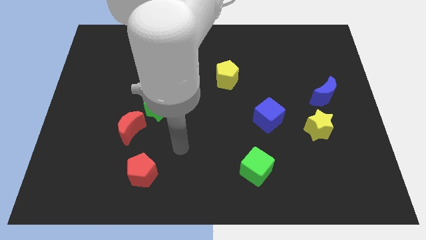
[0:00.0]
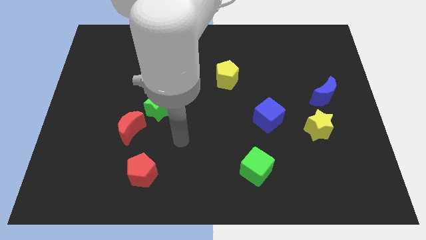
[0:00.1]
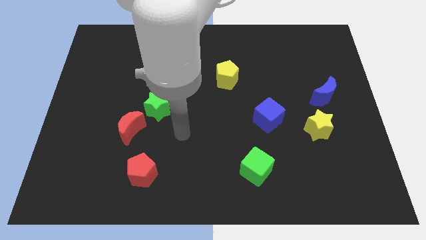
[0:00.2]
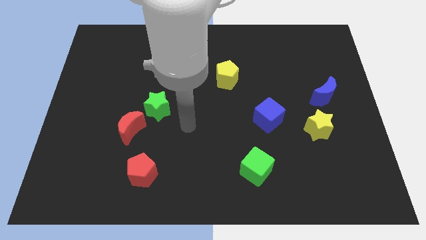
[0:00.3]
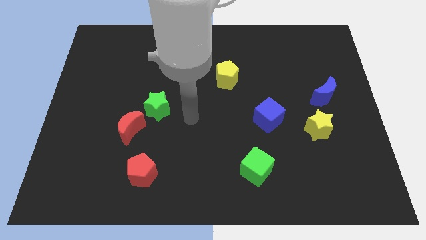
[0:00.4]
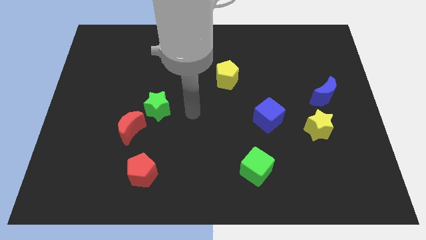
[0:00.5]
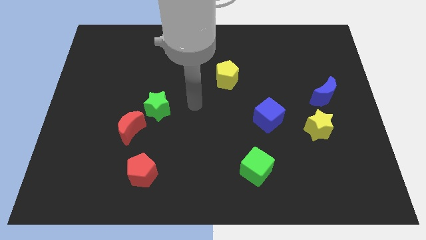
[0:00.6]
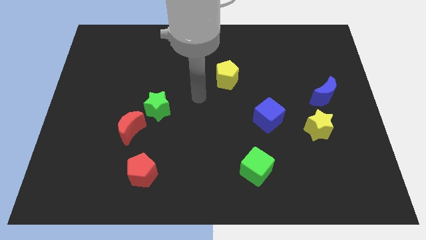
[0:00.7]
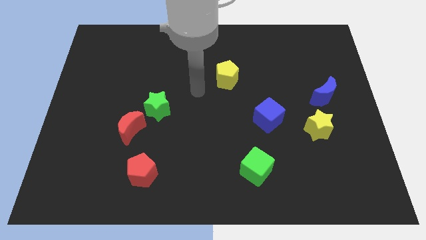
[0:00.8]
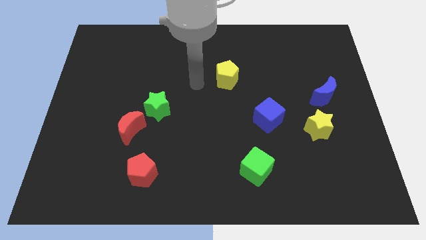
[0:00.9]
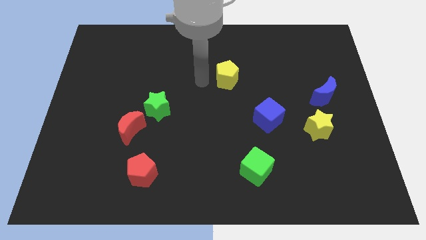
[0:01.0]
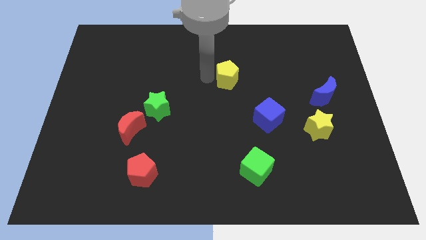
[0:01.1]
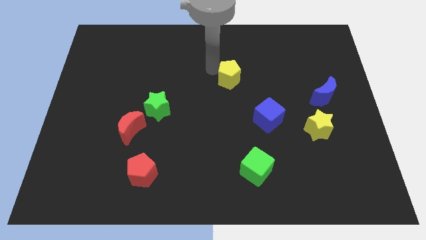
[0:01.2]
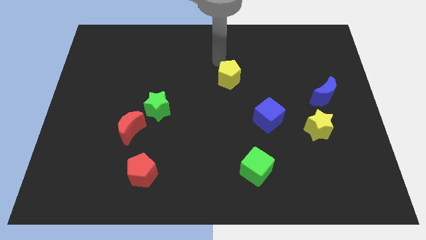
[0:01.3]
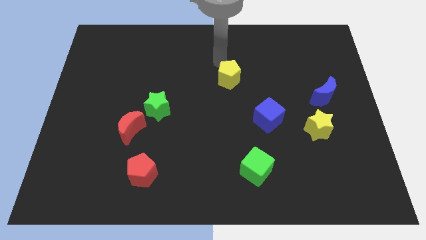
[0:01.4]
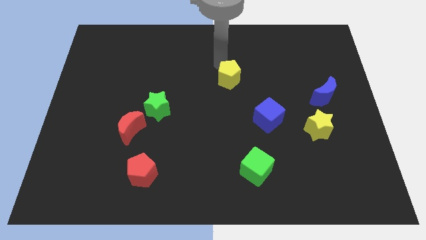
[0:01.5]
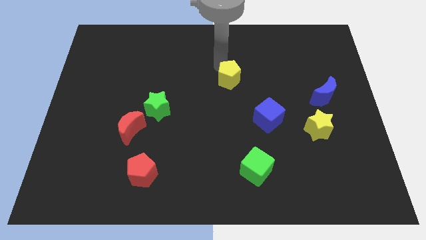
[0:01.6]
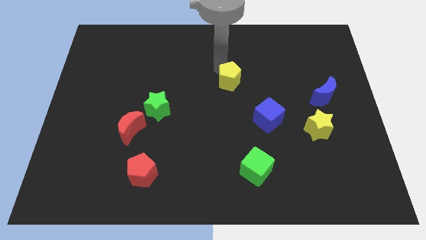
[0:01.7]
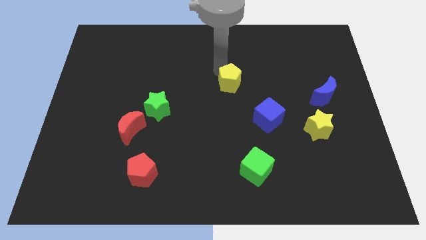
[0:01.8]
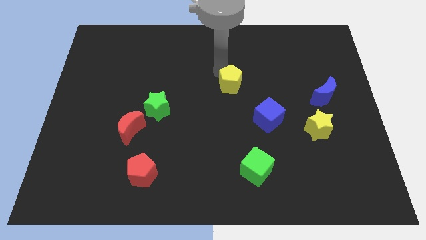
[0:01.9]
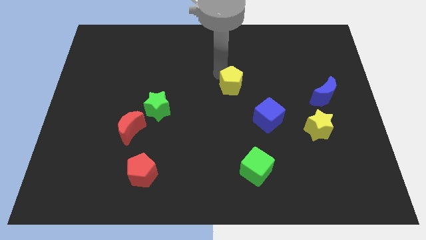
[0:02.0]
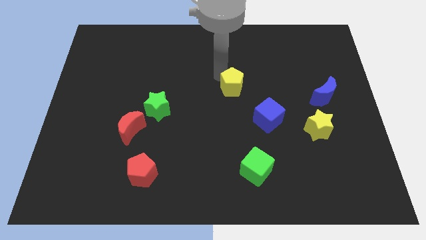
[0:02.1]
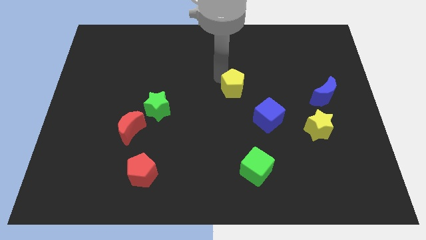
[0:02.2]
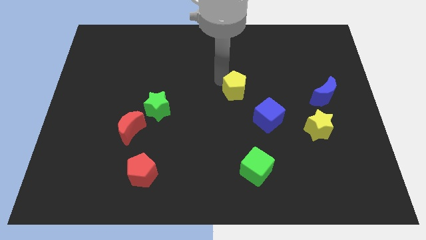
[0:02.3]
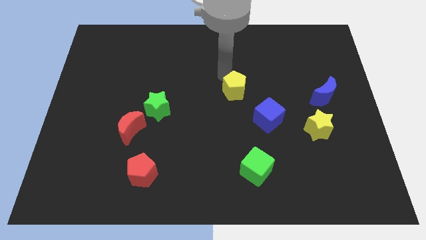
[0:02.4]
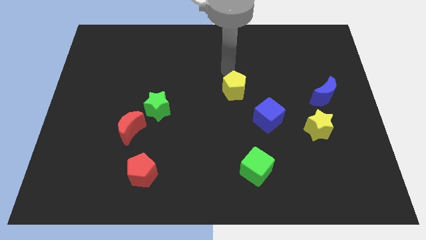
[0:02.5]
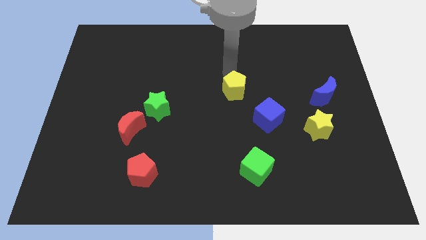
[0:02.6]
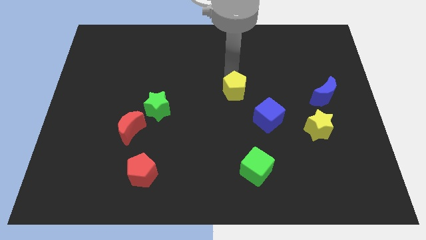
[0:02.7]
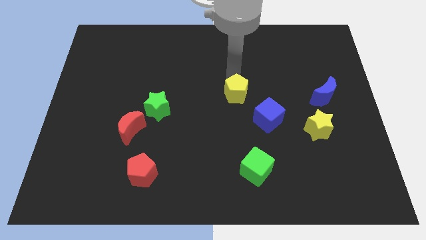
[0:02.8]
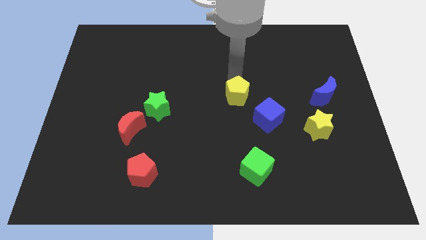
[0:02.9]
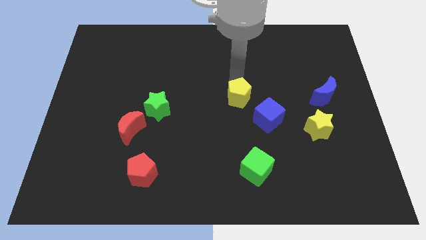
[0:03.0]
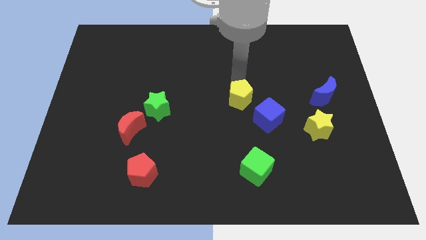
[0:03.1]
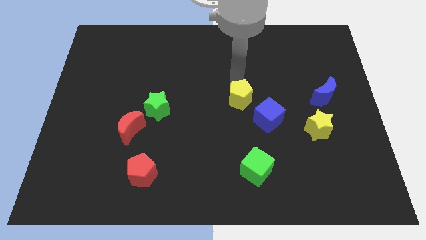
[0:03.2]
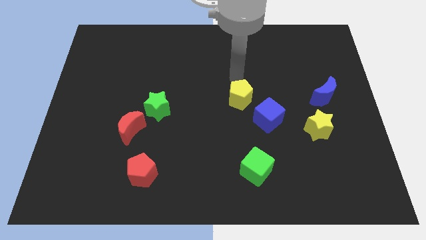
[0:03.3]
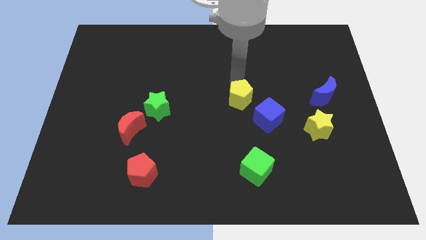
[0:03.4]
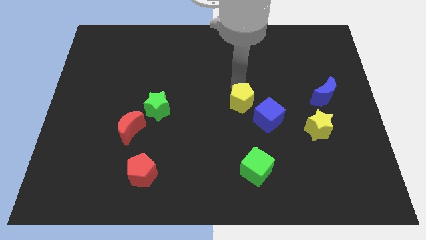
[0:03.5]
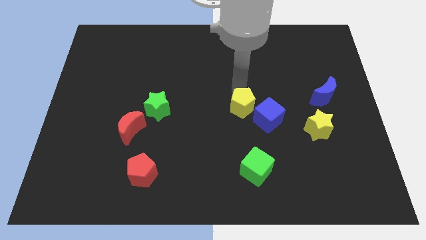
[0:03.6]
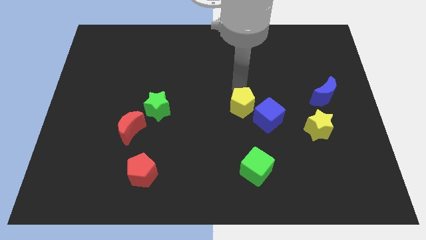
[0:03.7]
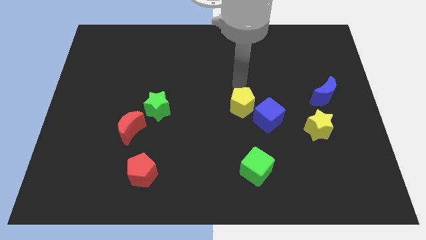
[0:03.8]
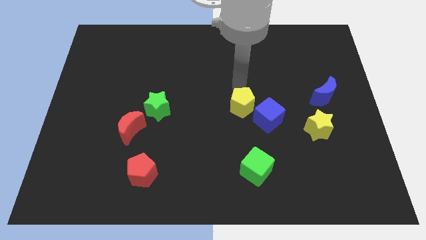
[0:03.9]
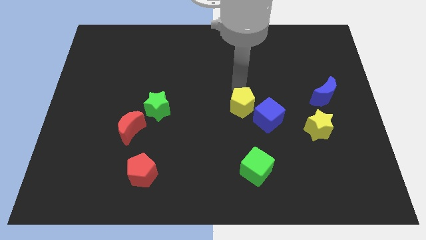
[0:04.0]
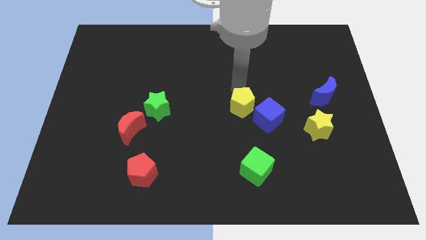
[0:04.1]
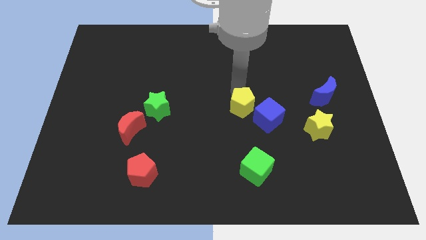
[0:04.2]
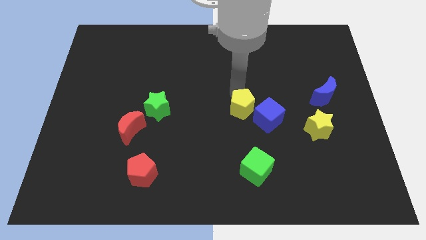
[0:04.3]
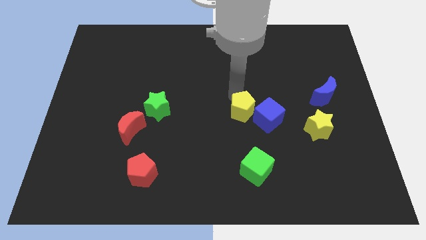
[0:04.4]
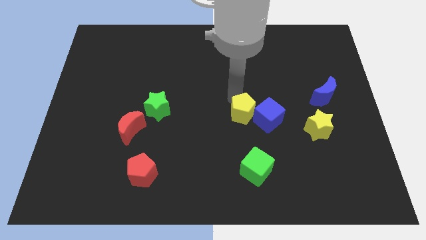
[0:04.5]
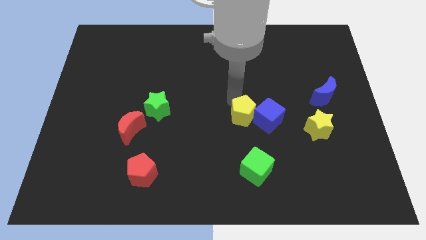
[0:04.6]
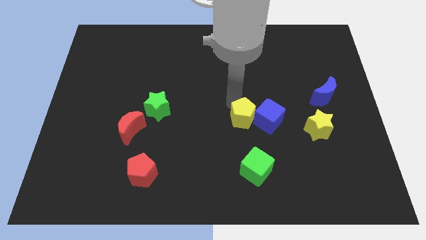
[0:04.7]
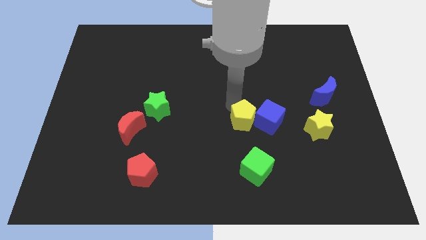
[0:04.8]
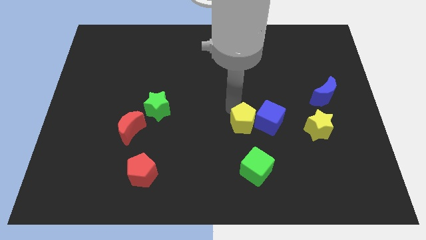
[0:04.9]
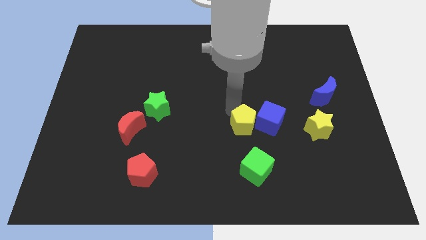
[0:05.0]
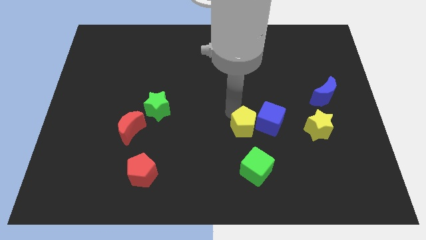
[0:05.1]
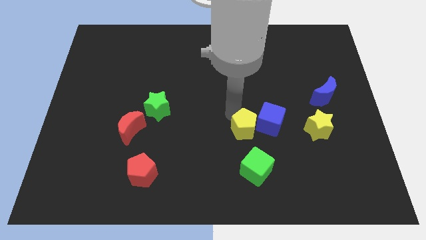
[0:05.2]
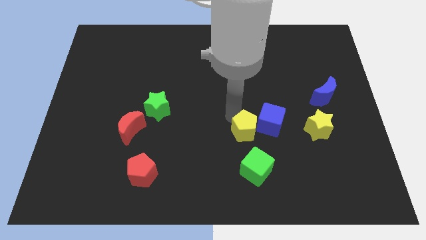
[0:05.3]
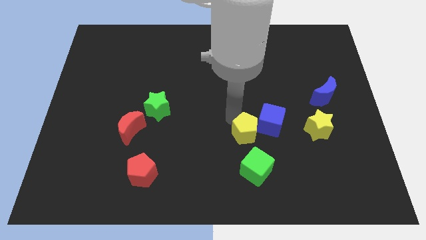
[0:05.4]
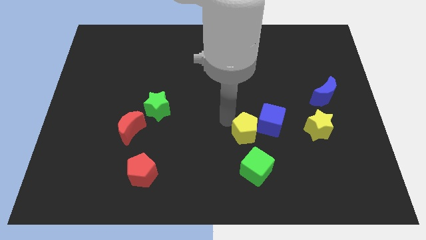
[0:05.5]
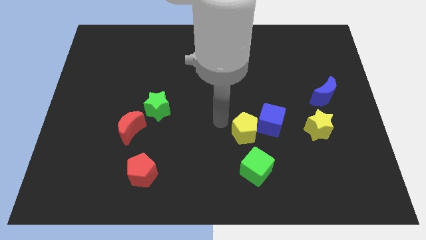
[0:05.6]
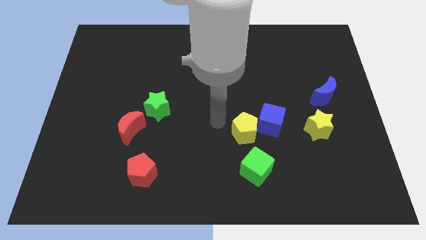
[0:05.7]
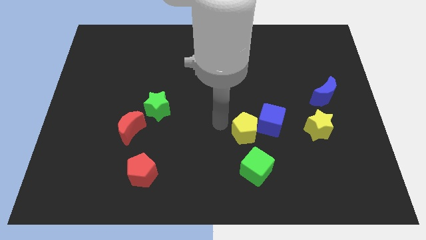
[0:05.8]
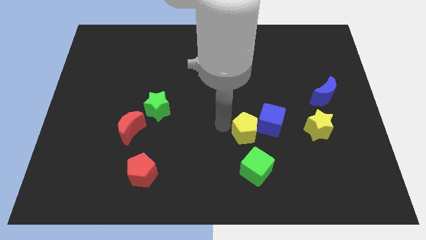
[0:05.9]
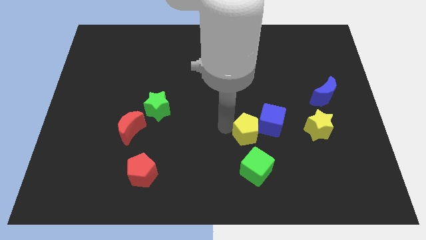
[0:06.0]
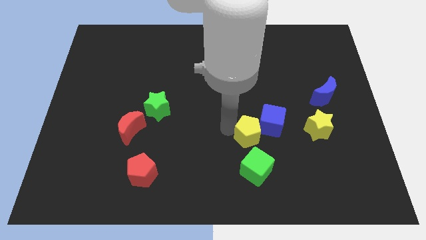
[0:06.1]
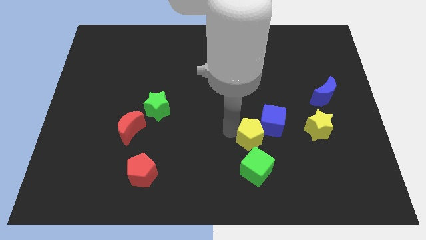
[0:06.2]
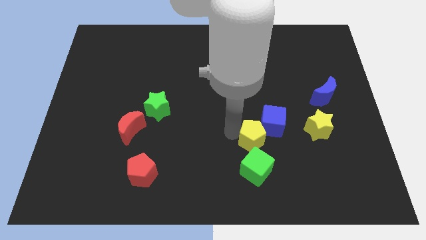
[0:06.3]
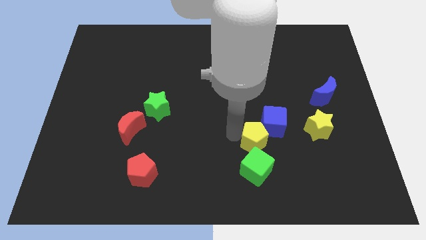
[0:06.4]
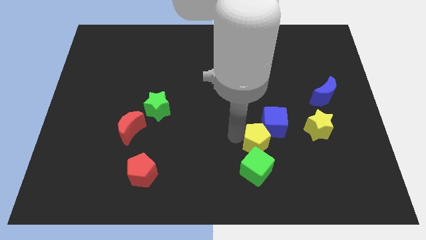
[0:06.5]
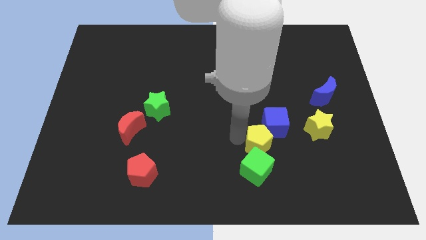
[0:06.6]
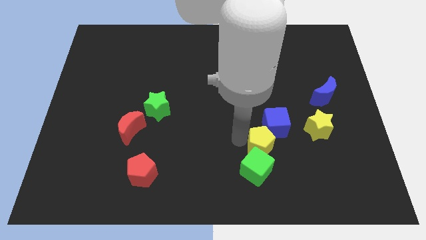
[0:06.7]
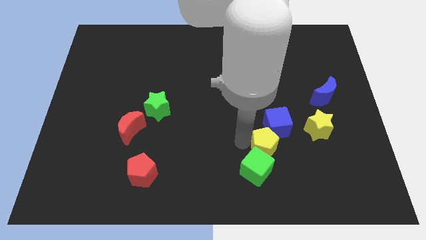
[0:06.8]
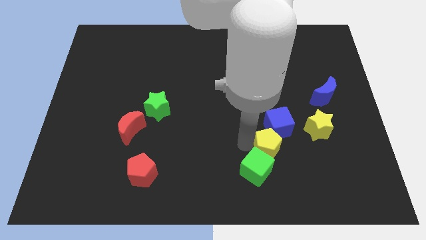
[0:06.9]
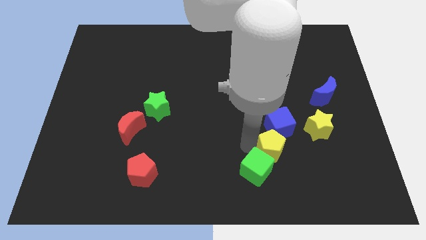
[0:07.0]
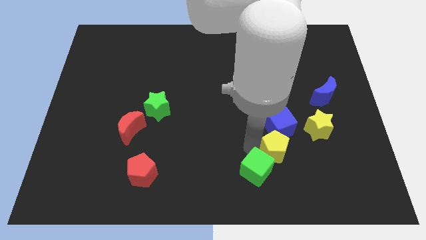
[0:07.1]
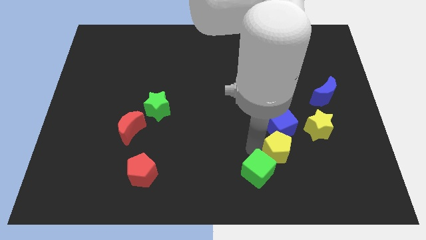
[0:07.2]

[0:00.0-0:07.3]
slide the yellow pentagon diagonally down and to the right

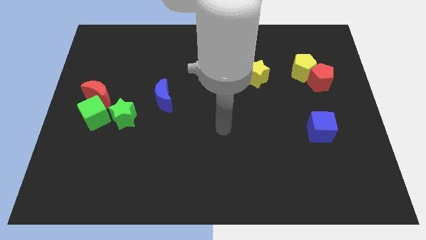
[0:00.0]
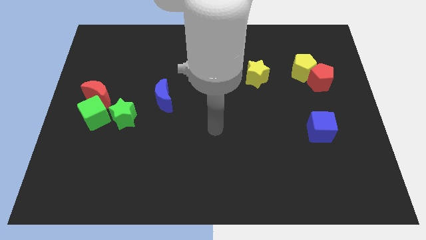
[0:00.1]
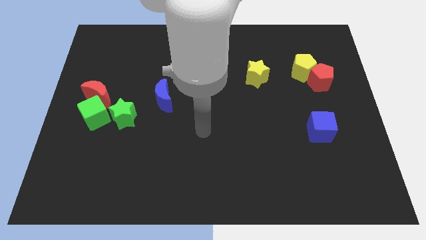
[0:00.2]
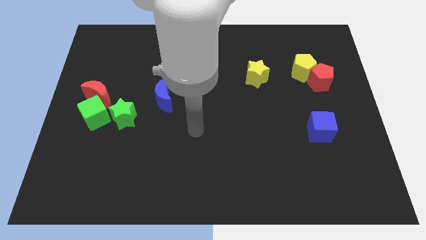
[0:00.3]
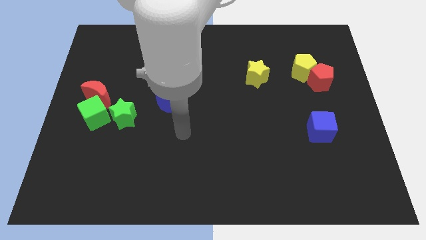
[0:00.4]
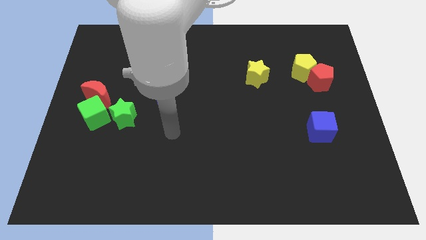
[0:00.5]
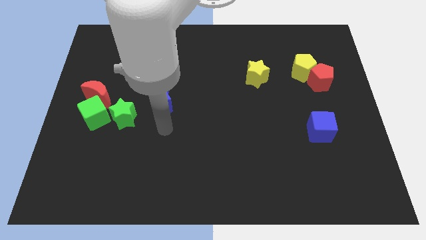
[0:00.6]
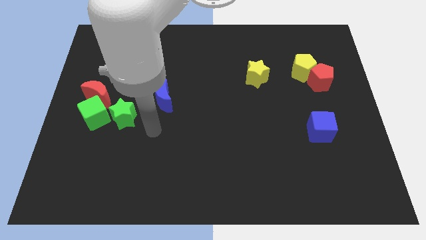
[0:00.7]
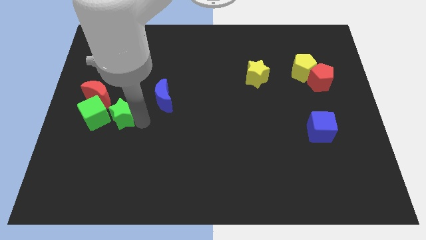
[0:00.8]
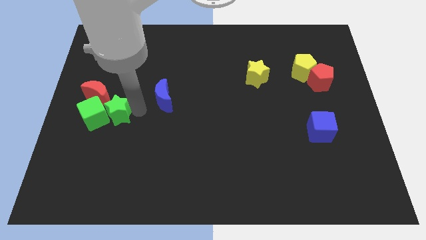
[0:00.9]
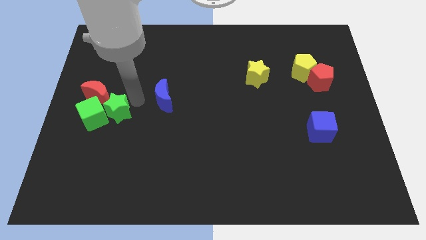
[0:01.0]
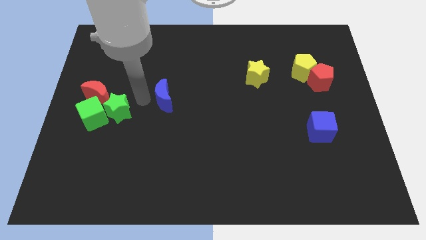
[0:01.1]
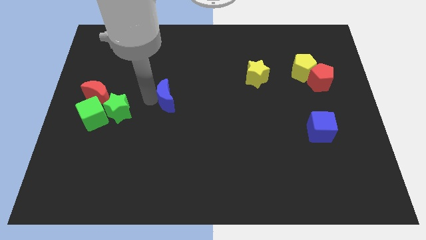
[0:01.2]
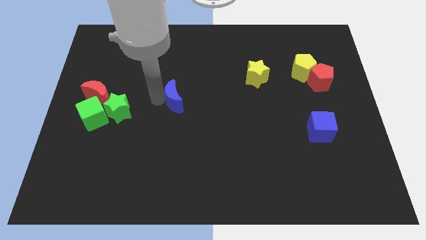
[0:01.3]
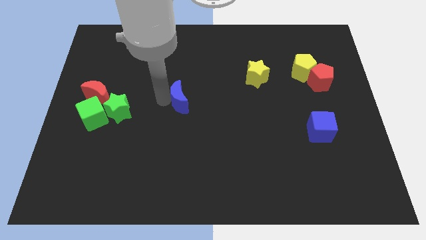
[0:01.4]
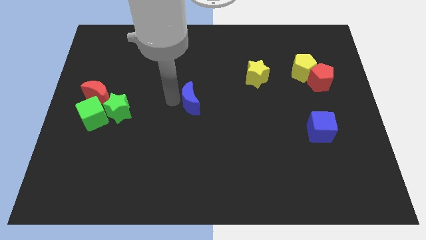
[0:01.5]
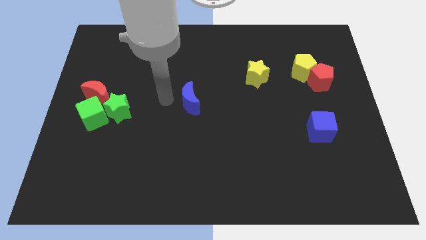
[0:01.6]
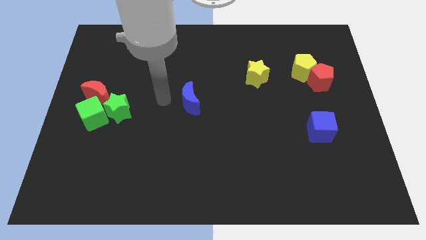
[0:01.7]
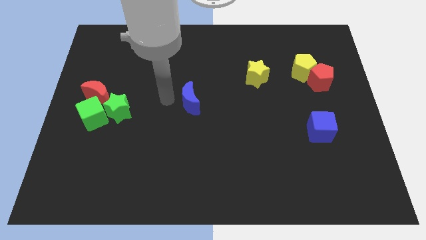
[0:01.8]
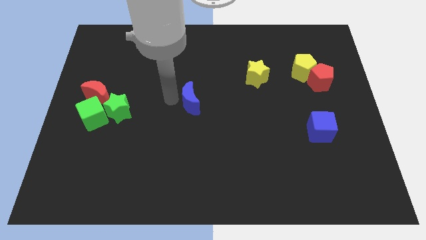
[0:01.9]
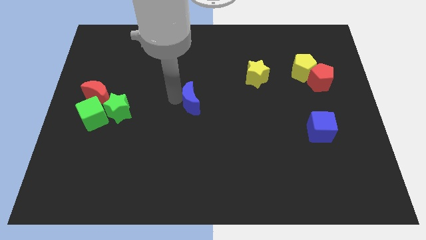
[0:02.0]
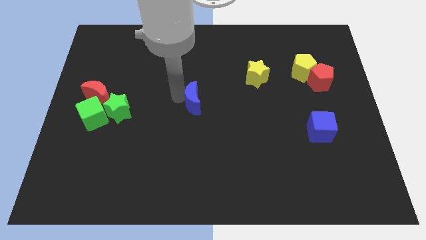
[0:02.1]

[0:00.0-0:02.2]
slide the blue moon to the right a little
